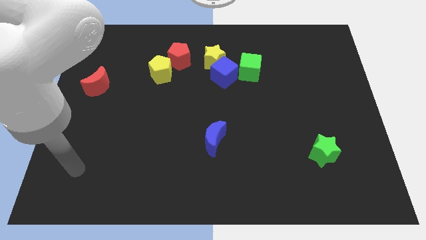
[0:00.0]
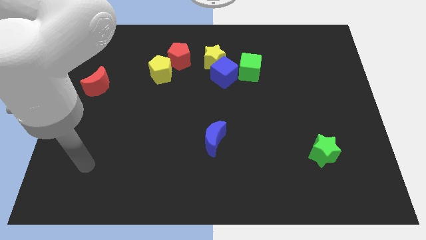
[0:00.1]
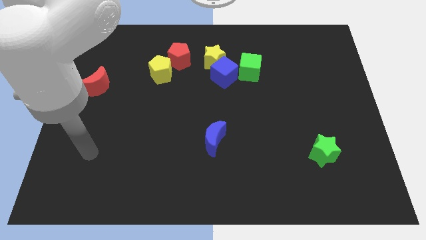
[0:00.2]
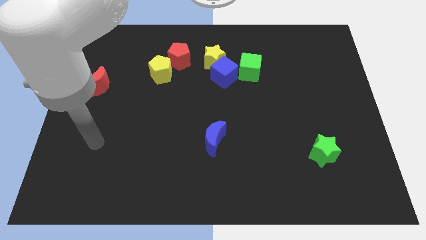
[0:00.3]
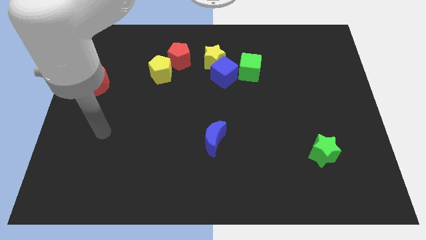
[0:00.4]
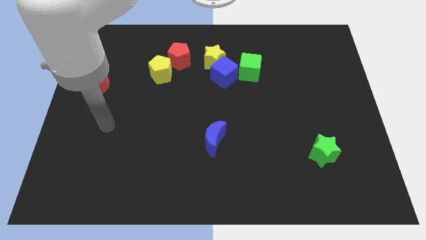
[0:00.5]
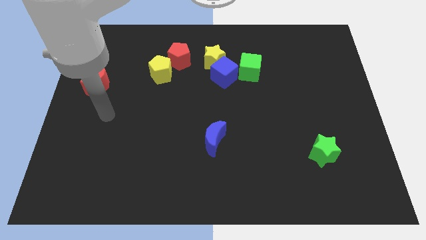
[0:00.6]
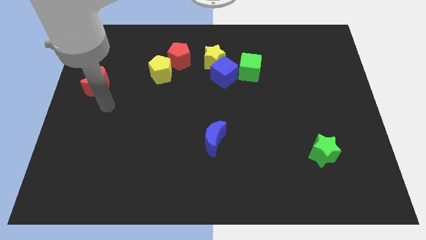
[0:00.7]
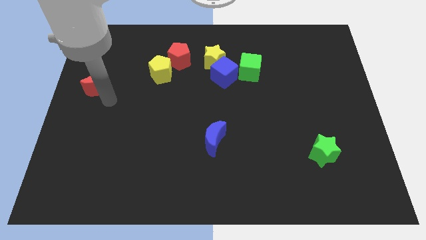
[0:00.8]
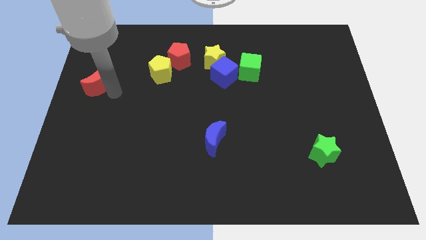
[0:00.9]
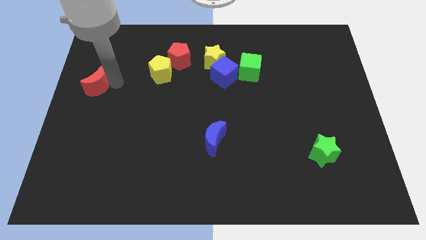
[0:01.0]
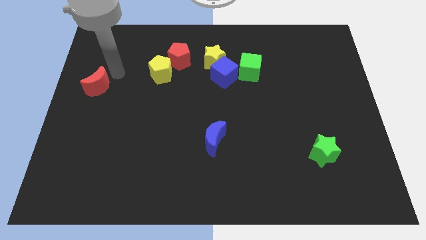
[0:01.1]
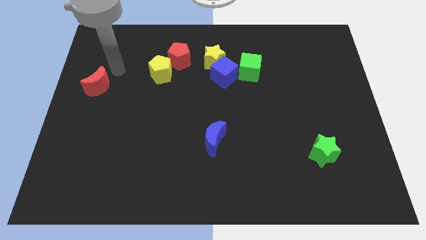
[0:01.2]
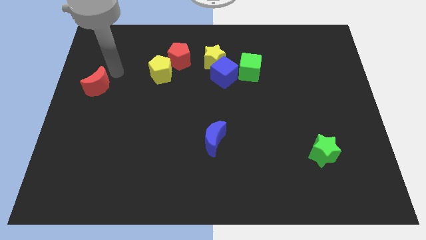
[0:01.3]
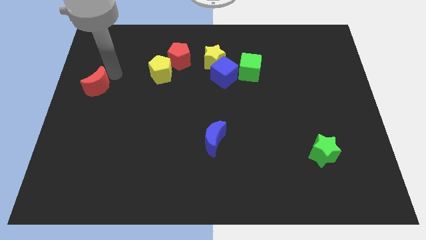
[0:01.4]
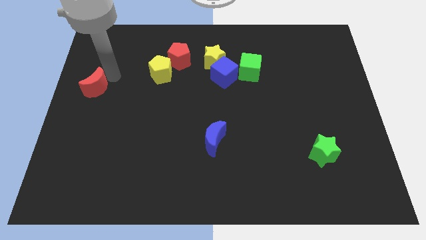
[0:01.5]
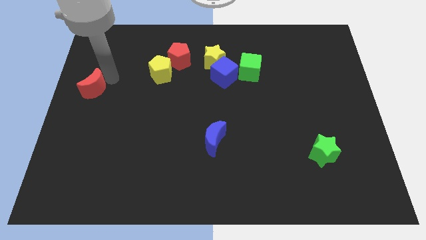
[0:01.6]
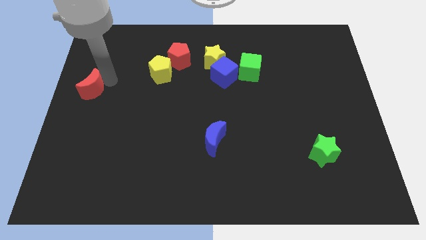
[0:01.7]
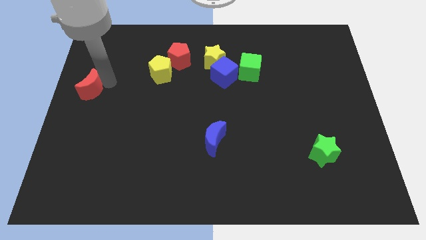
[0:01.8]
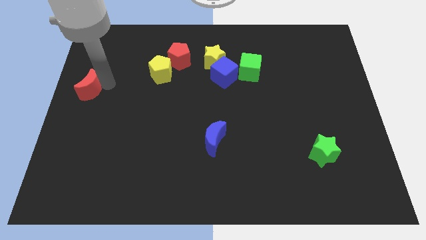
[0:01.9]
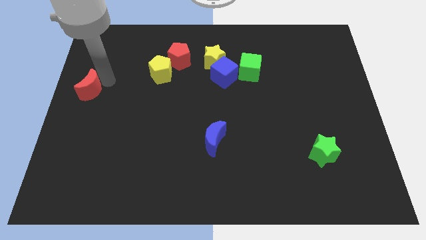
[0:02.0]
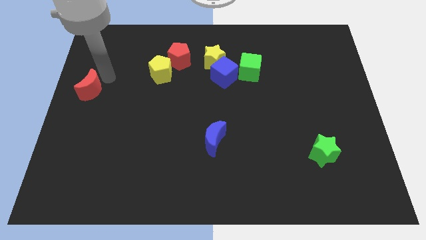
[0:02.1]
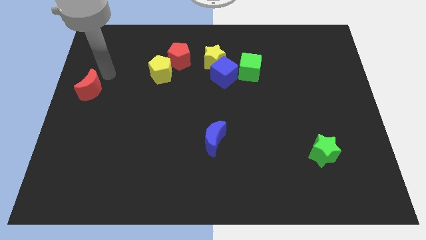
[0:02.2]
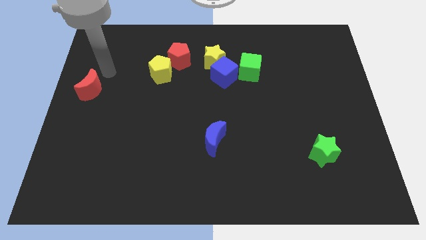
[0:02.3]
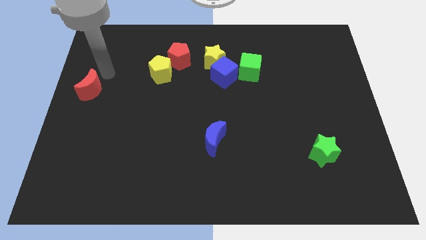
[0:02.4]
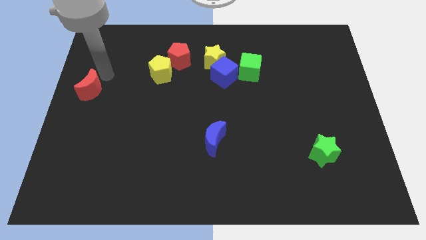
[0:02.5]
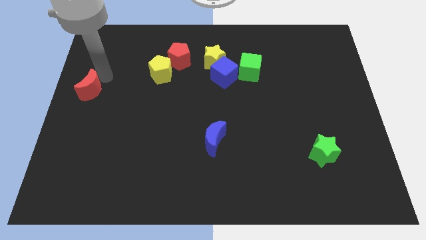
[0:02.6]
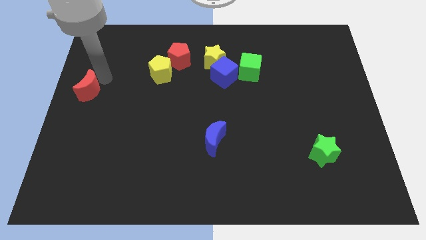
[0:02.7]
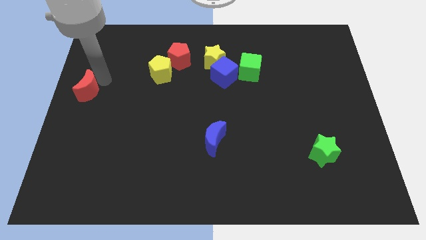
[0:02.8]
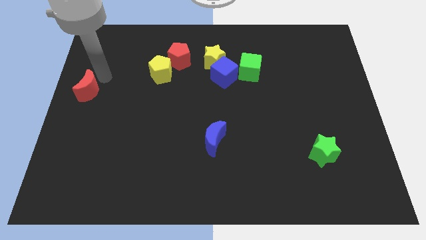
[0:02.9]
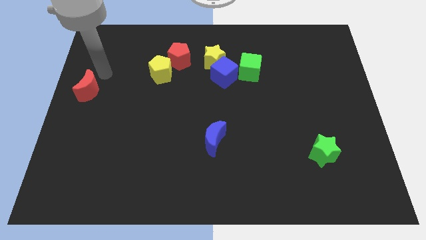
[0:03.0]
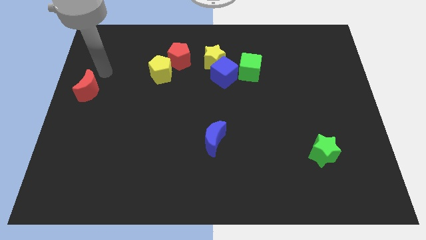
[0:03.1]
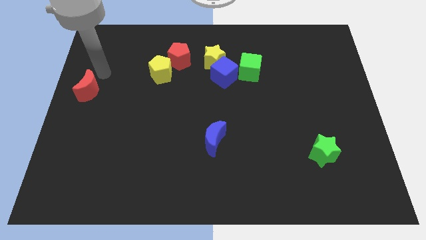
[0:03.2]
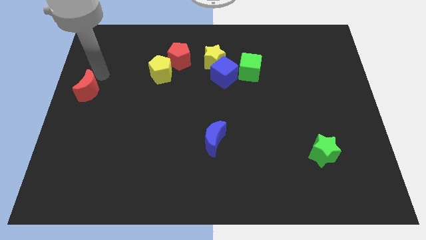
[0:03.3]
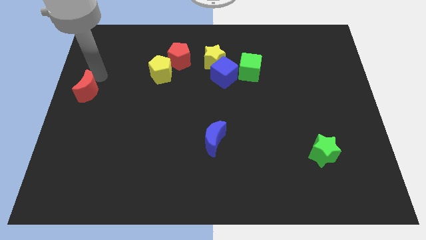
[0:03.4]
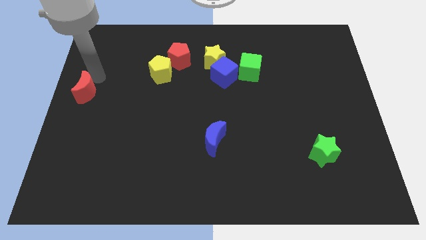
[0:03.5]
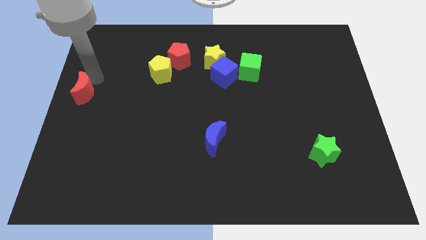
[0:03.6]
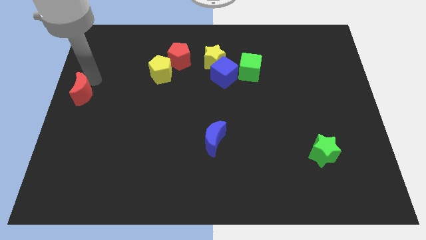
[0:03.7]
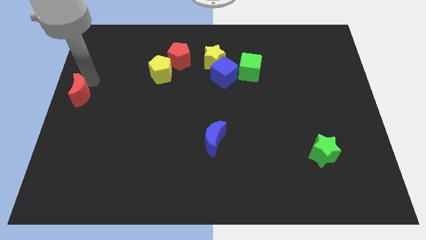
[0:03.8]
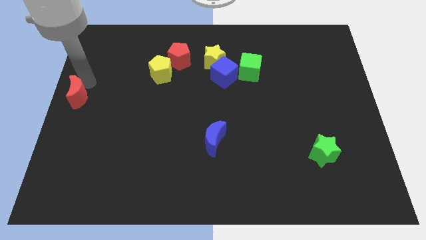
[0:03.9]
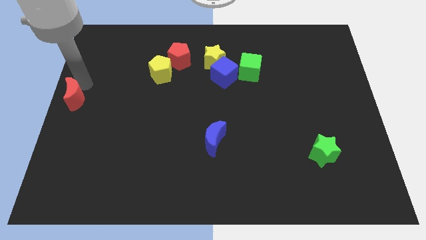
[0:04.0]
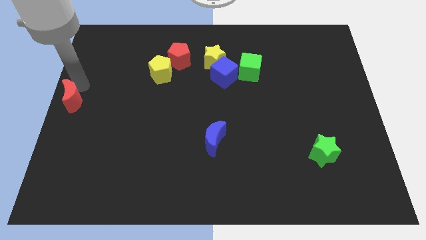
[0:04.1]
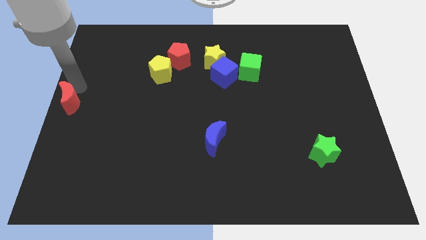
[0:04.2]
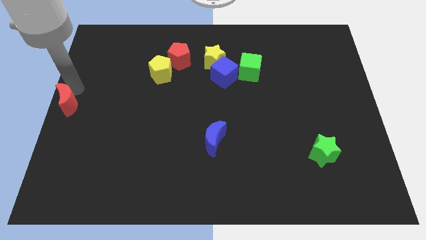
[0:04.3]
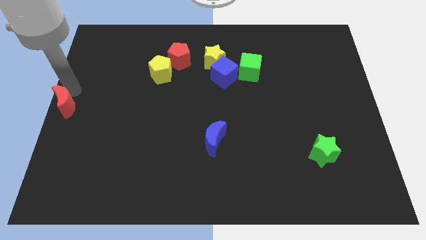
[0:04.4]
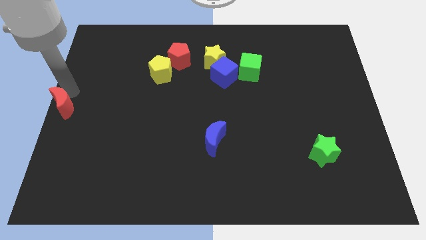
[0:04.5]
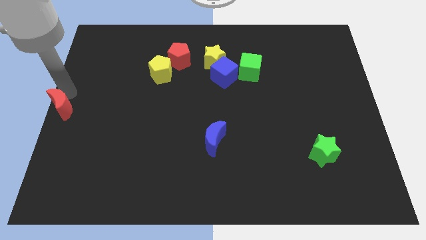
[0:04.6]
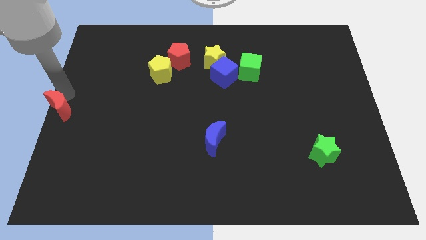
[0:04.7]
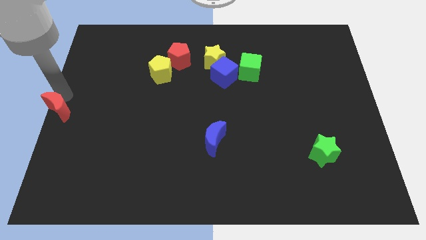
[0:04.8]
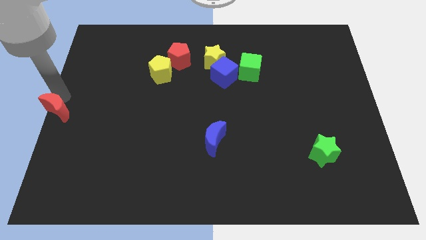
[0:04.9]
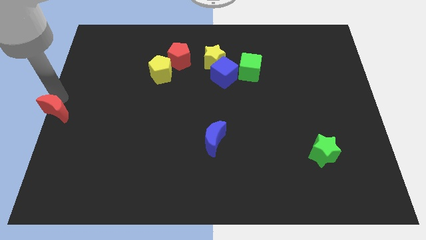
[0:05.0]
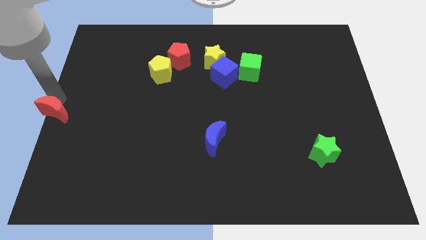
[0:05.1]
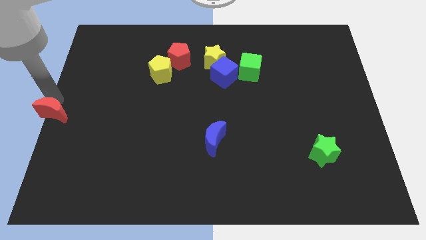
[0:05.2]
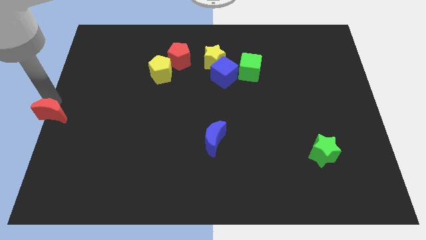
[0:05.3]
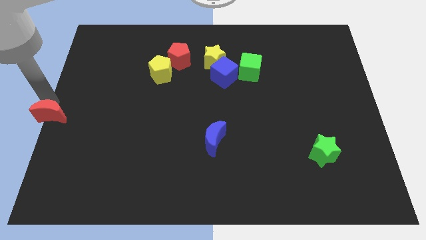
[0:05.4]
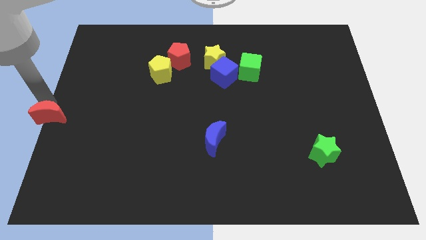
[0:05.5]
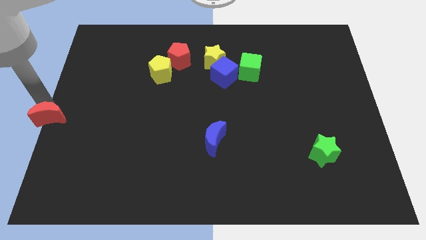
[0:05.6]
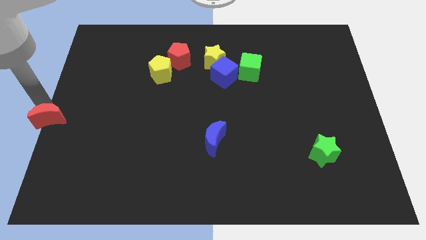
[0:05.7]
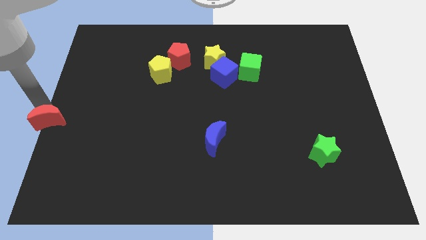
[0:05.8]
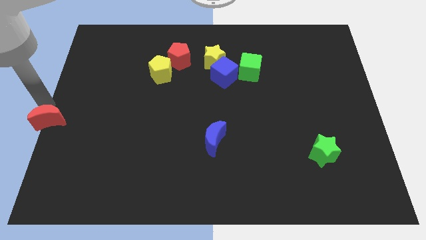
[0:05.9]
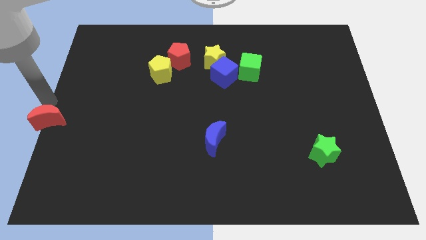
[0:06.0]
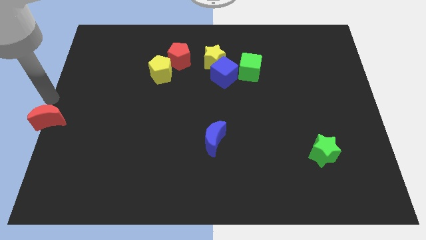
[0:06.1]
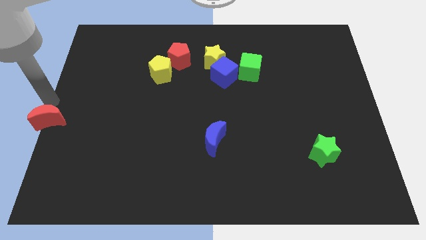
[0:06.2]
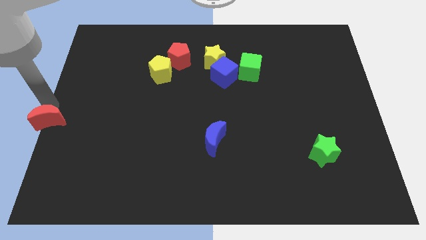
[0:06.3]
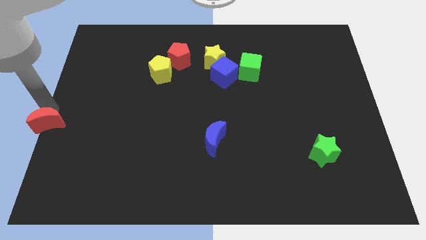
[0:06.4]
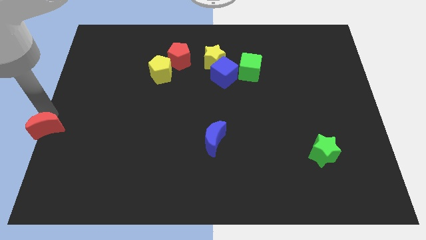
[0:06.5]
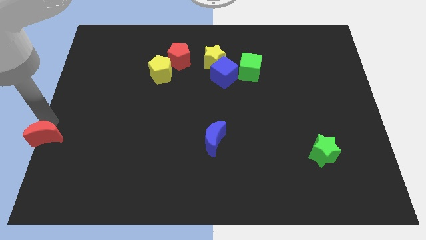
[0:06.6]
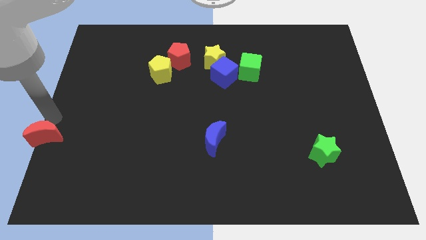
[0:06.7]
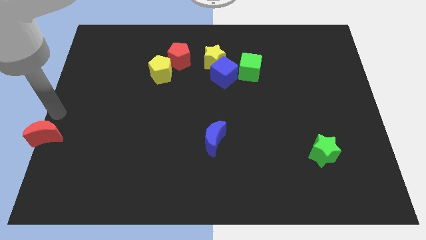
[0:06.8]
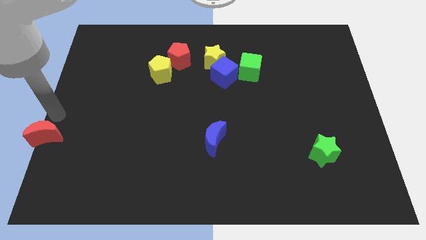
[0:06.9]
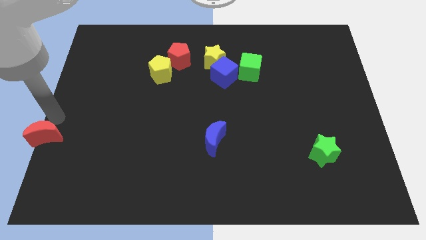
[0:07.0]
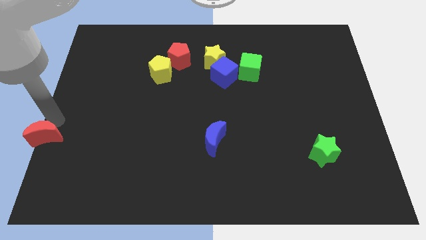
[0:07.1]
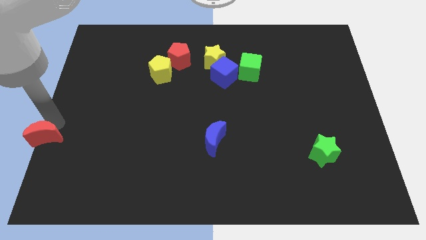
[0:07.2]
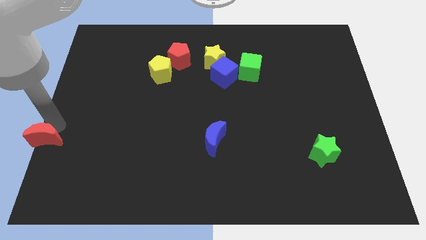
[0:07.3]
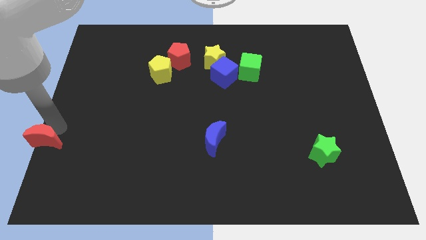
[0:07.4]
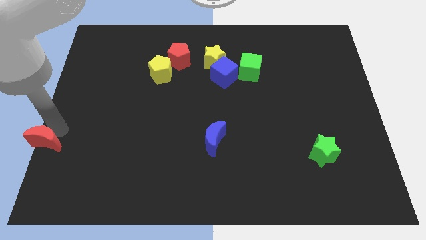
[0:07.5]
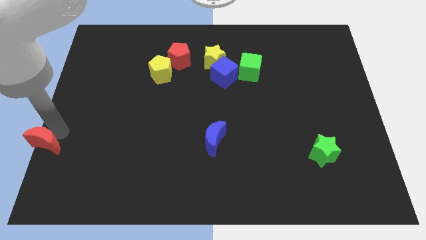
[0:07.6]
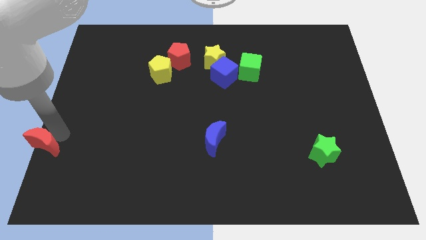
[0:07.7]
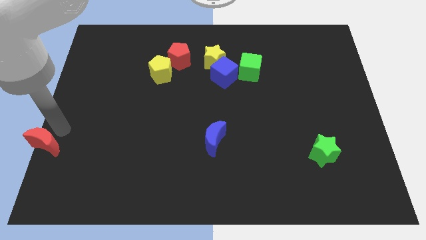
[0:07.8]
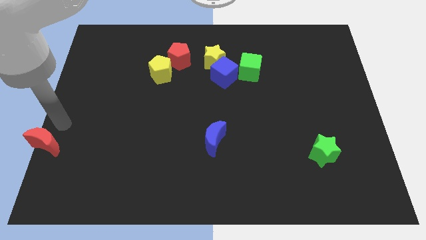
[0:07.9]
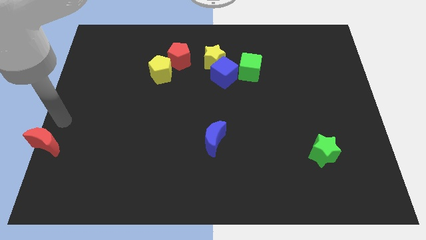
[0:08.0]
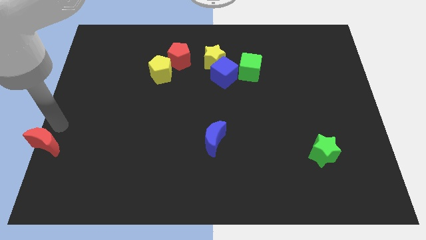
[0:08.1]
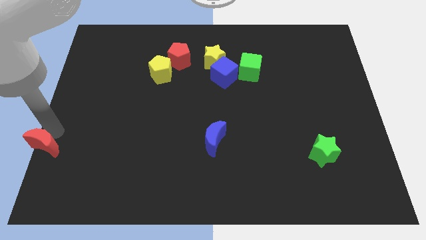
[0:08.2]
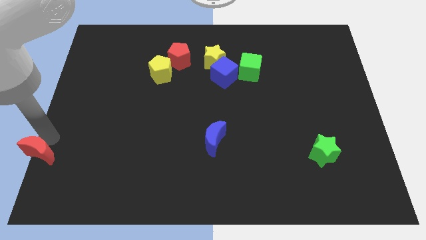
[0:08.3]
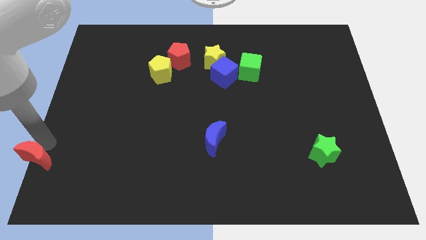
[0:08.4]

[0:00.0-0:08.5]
slide the red moon to the lower left corner
